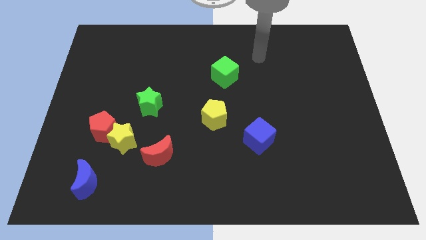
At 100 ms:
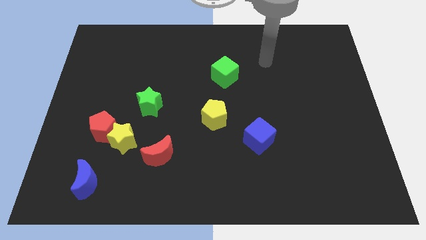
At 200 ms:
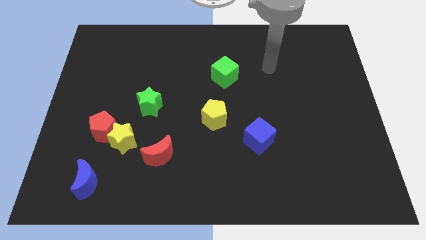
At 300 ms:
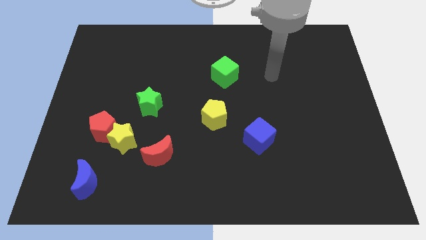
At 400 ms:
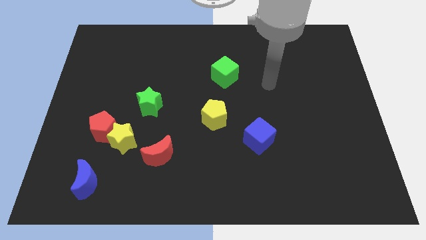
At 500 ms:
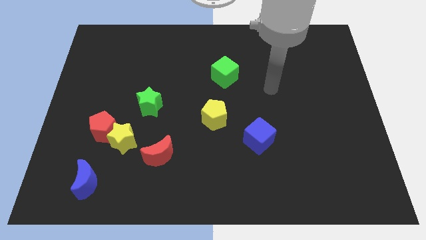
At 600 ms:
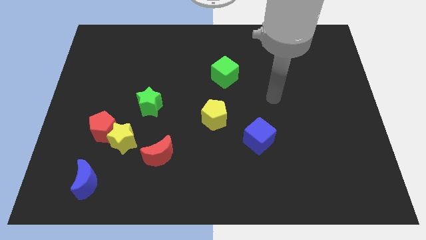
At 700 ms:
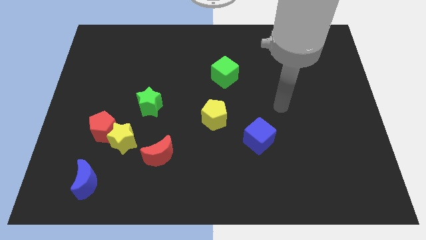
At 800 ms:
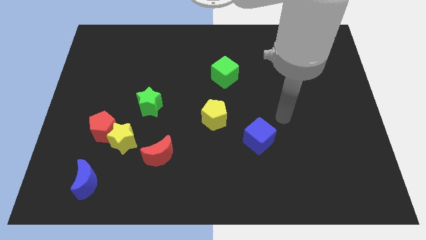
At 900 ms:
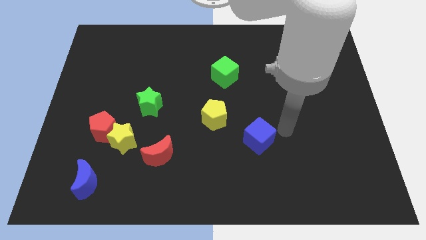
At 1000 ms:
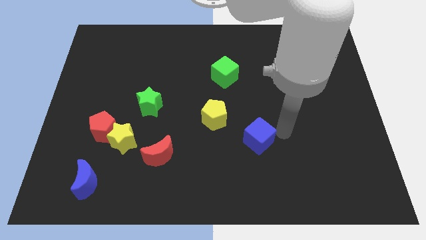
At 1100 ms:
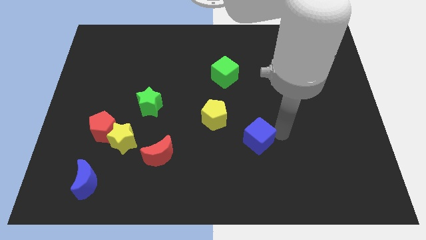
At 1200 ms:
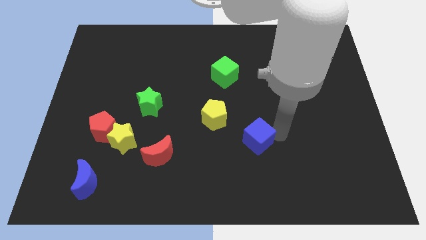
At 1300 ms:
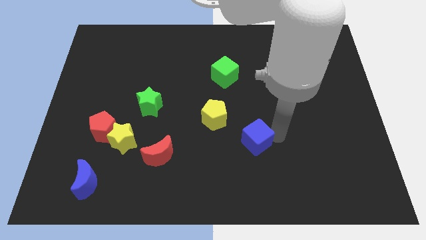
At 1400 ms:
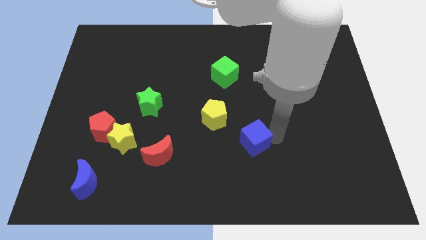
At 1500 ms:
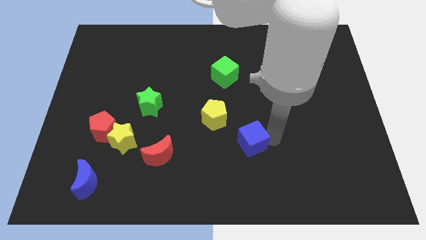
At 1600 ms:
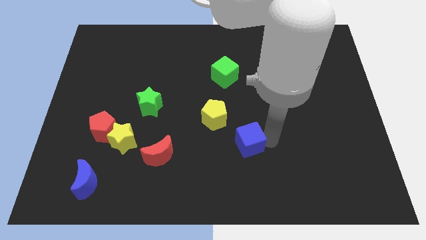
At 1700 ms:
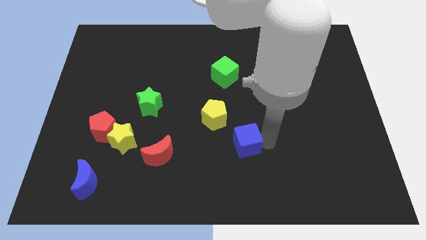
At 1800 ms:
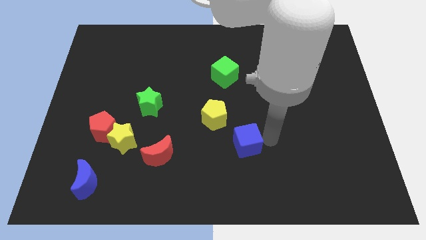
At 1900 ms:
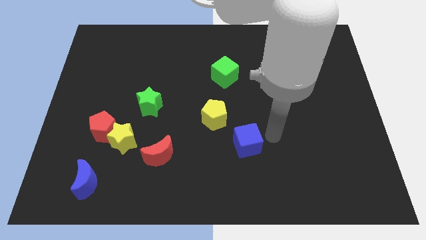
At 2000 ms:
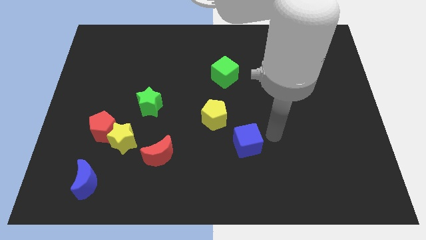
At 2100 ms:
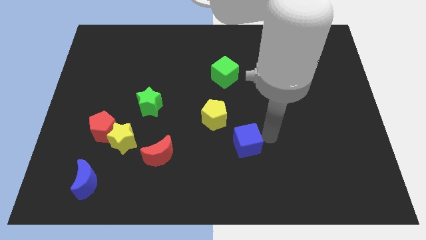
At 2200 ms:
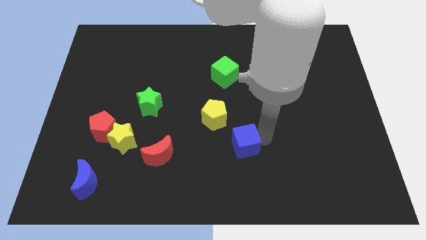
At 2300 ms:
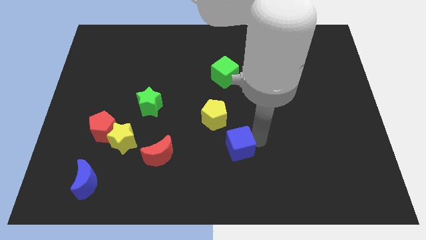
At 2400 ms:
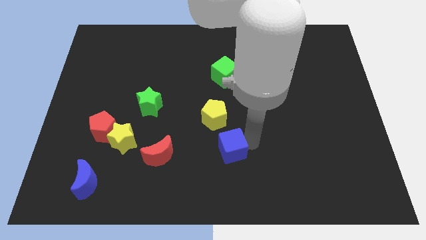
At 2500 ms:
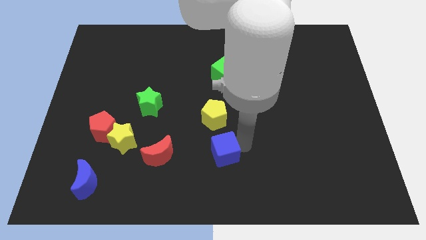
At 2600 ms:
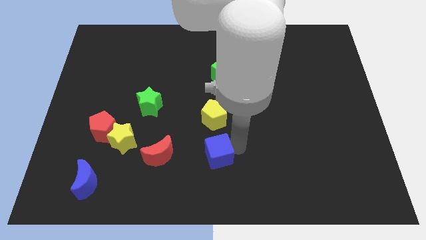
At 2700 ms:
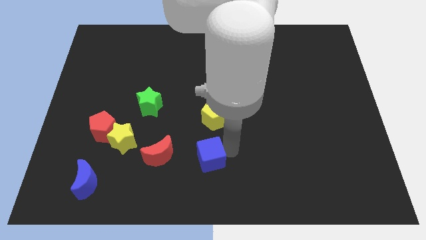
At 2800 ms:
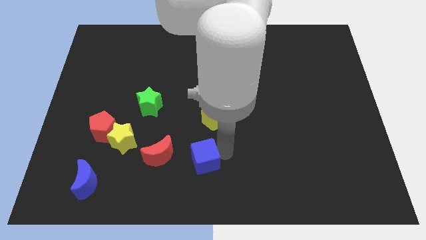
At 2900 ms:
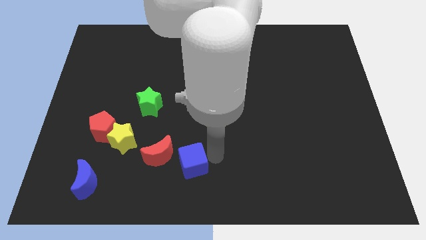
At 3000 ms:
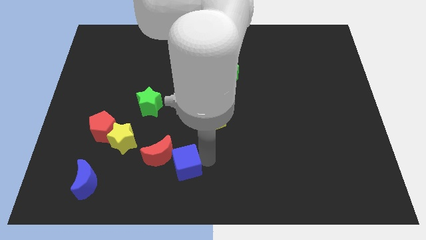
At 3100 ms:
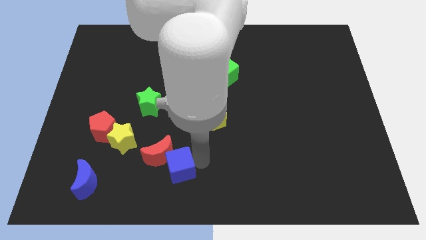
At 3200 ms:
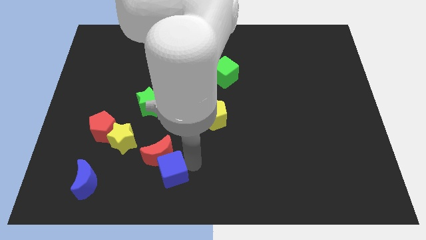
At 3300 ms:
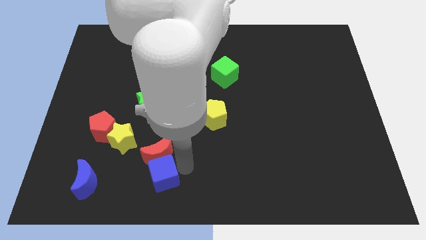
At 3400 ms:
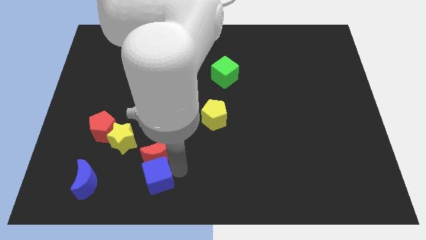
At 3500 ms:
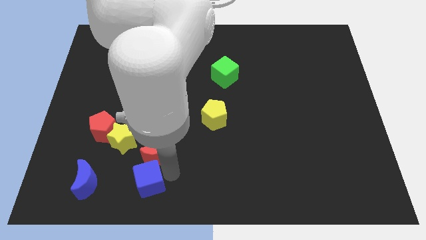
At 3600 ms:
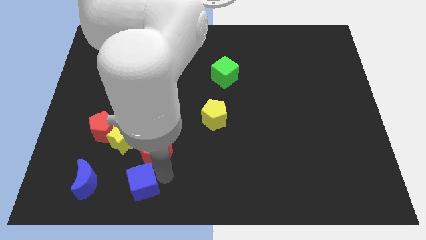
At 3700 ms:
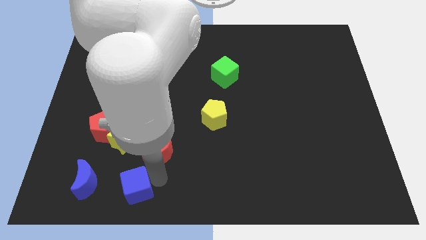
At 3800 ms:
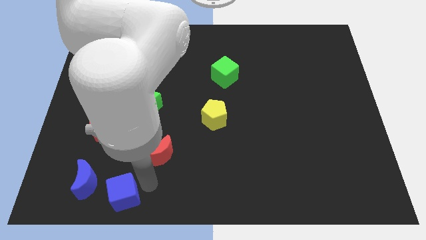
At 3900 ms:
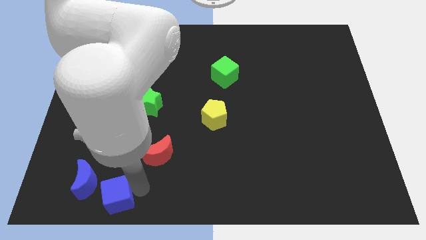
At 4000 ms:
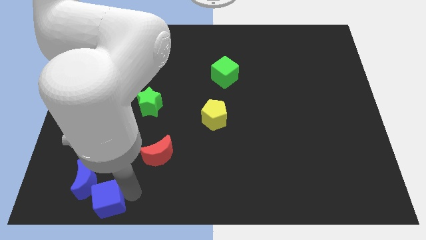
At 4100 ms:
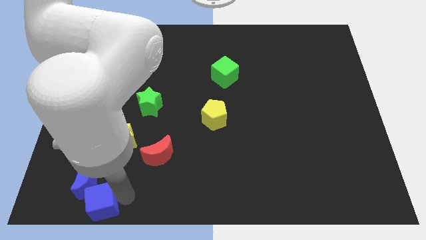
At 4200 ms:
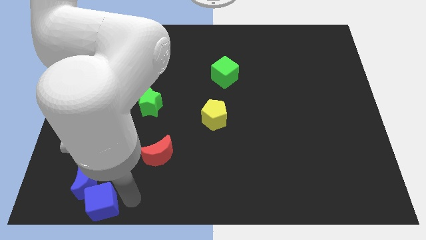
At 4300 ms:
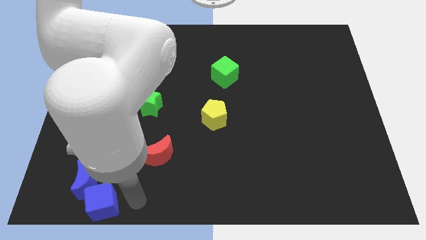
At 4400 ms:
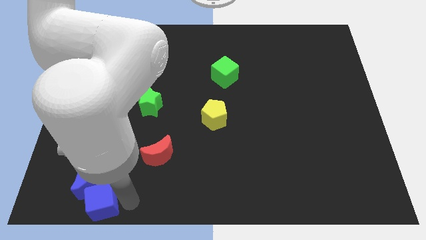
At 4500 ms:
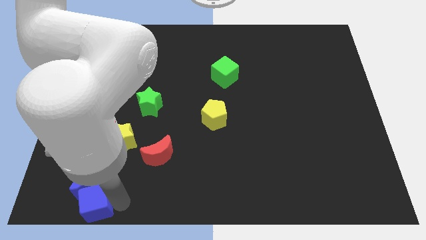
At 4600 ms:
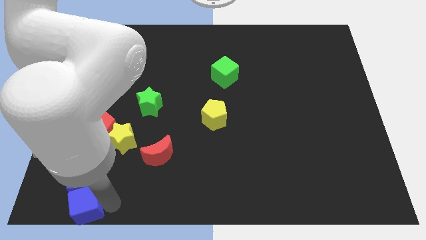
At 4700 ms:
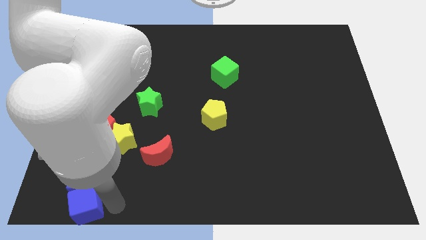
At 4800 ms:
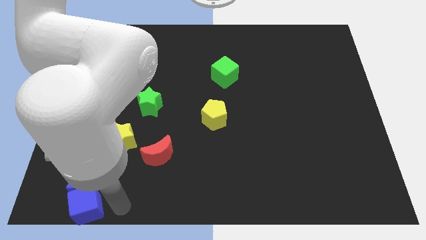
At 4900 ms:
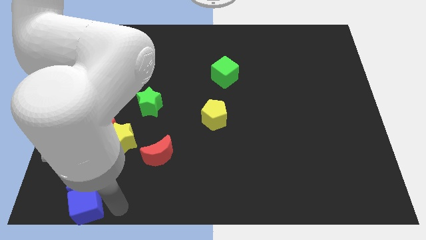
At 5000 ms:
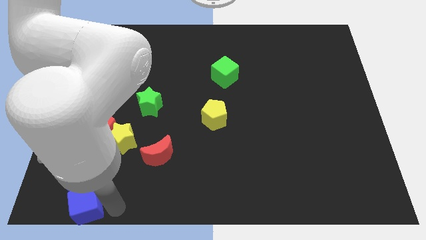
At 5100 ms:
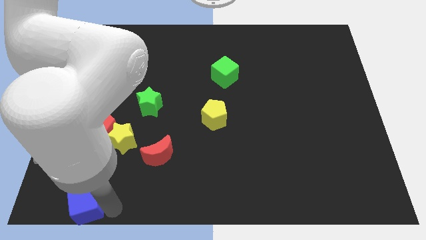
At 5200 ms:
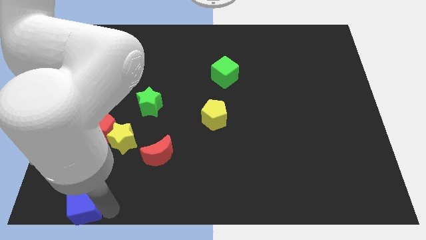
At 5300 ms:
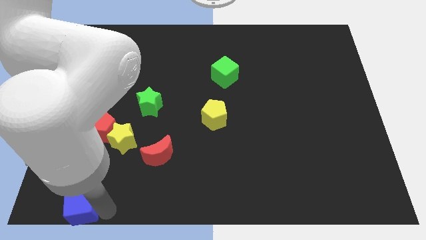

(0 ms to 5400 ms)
put the blue cube to the lower left corner

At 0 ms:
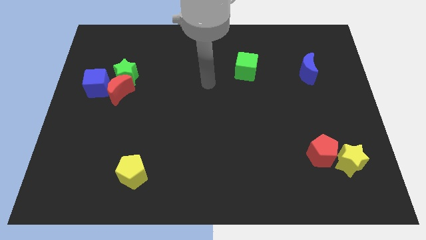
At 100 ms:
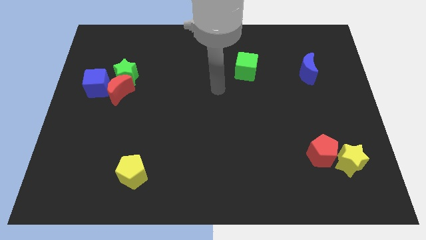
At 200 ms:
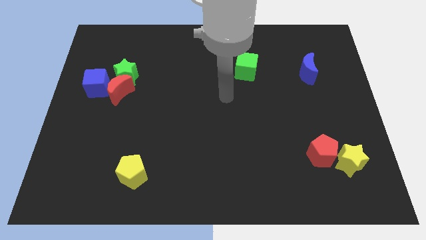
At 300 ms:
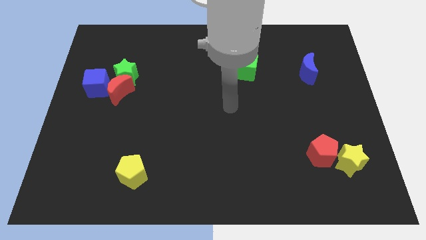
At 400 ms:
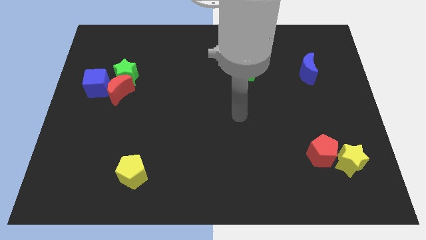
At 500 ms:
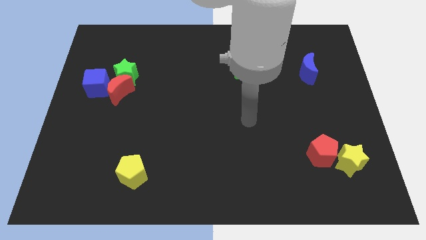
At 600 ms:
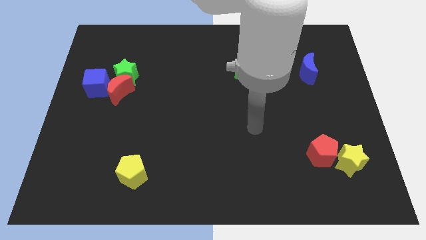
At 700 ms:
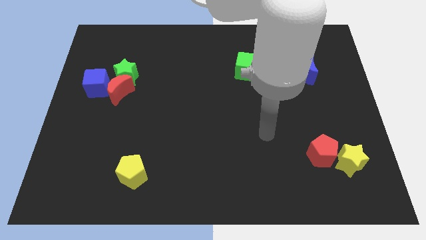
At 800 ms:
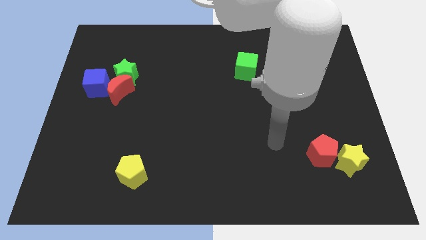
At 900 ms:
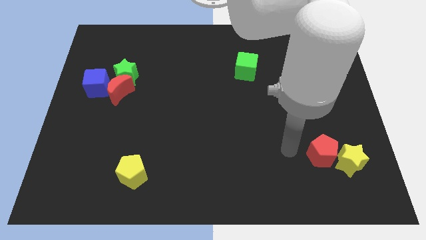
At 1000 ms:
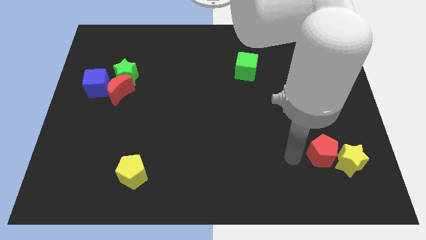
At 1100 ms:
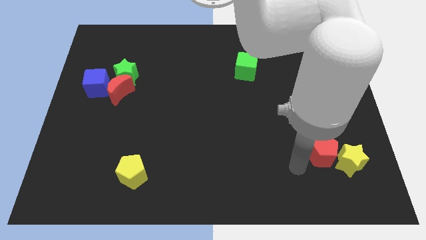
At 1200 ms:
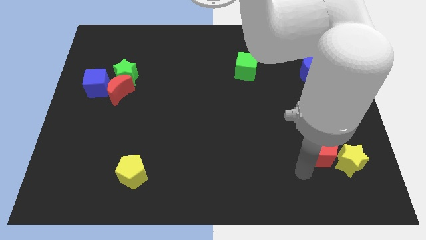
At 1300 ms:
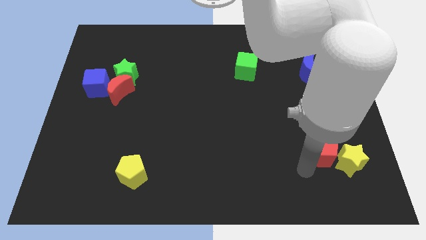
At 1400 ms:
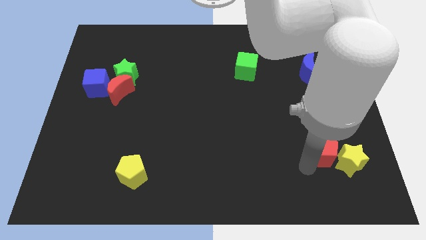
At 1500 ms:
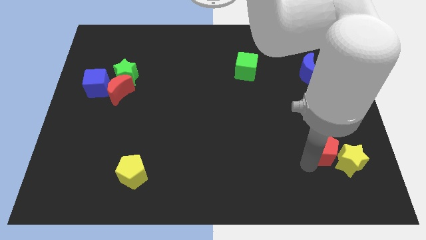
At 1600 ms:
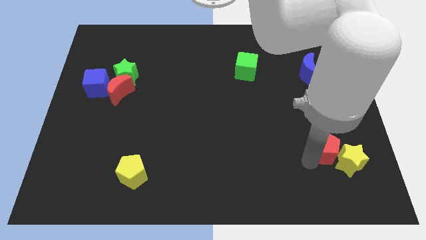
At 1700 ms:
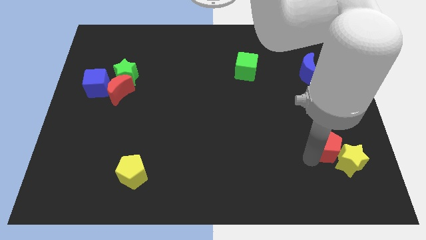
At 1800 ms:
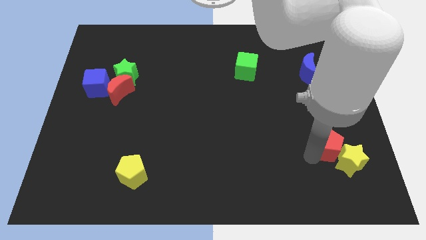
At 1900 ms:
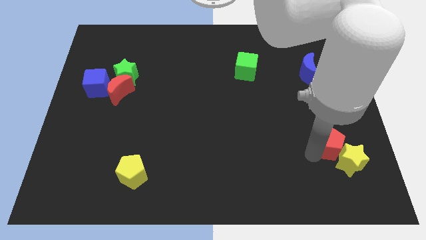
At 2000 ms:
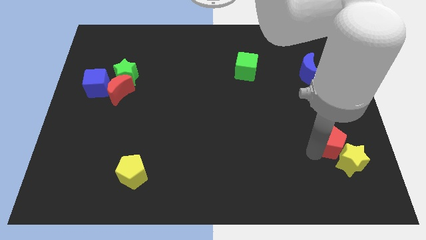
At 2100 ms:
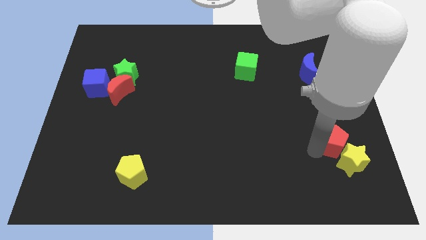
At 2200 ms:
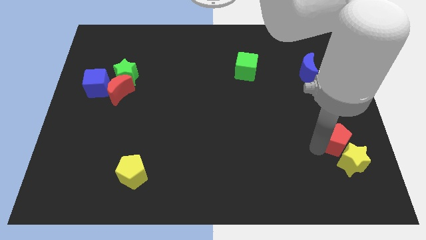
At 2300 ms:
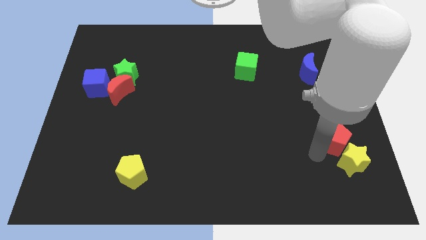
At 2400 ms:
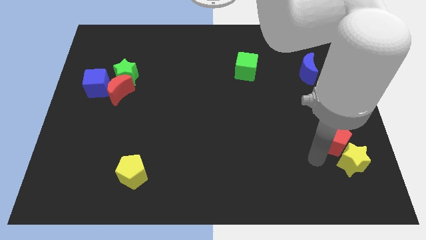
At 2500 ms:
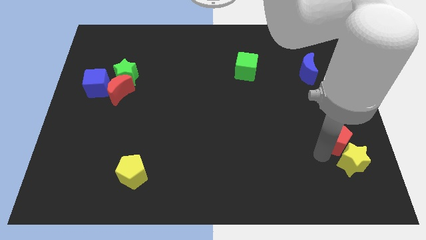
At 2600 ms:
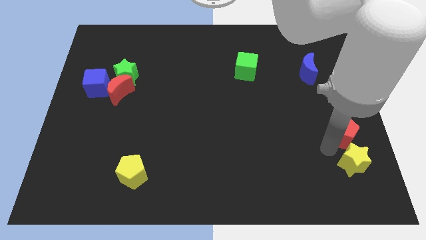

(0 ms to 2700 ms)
slide the red pentagon to the center right

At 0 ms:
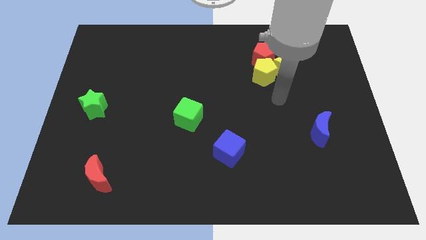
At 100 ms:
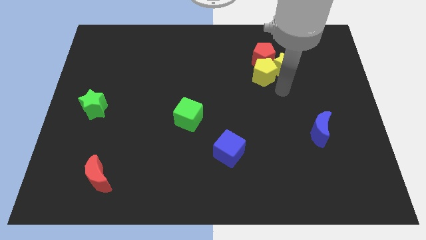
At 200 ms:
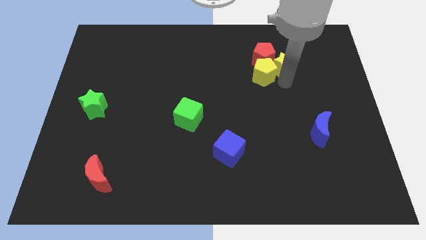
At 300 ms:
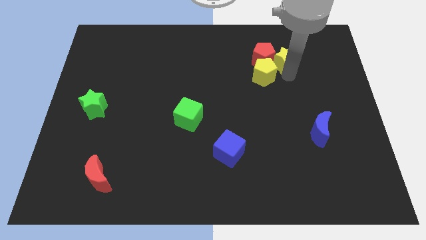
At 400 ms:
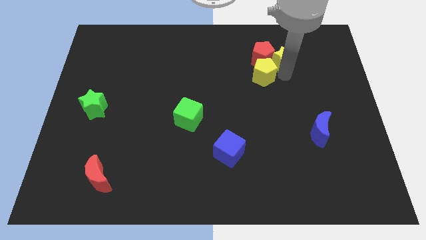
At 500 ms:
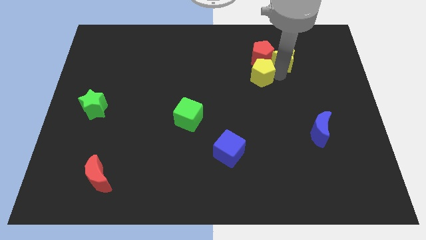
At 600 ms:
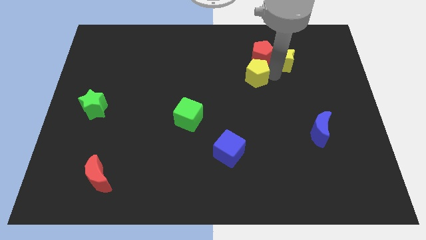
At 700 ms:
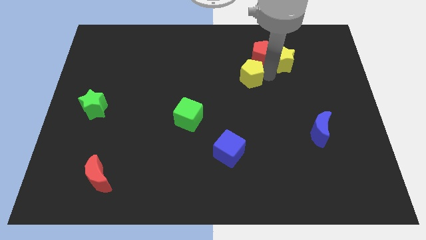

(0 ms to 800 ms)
put the yellow pentagon to the middle
